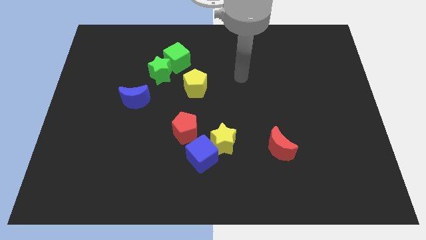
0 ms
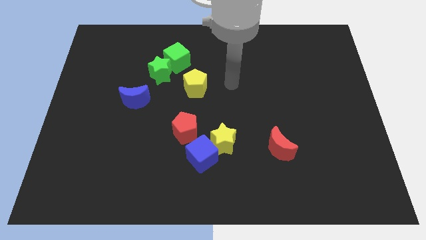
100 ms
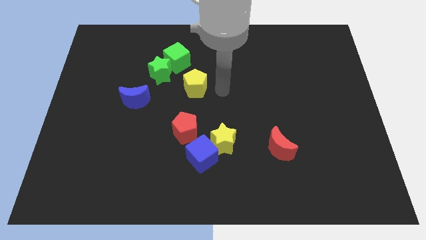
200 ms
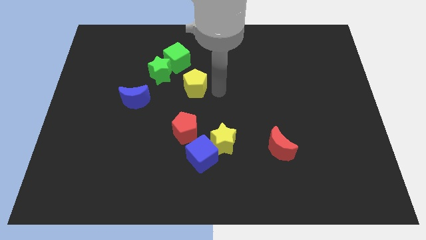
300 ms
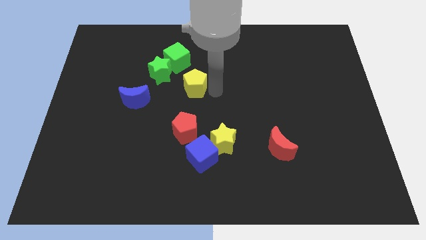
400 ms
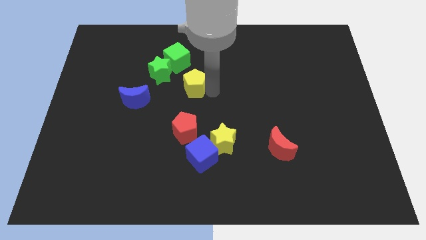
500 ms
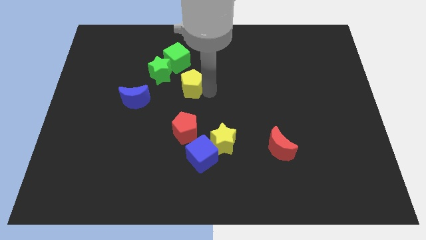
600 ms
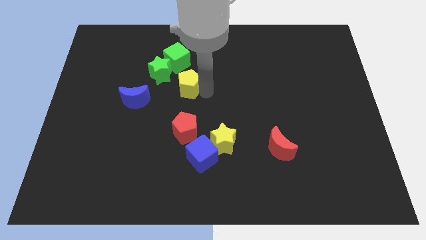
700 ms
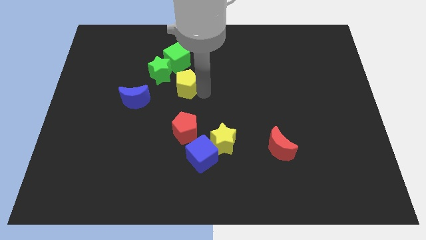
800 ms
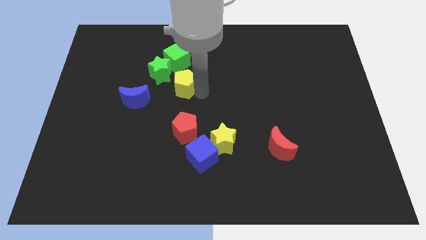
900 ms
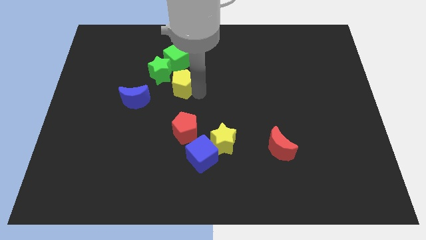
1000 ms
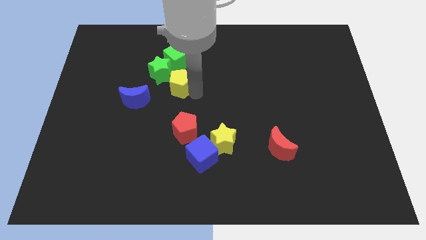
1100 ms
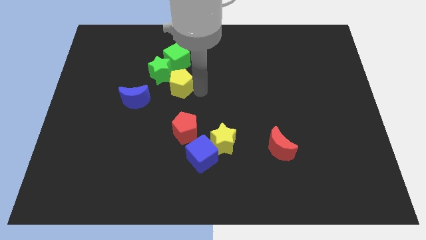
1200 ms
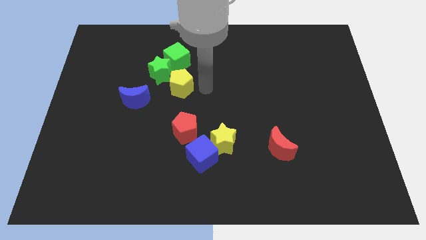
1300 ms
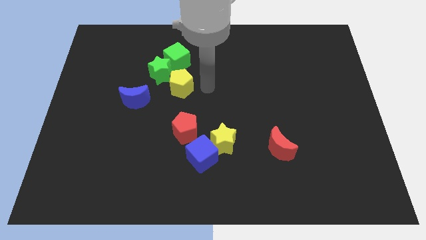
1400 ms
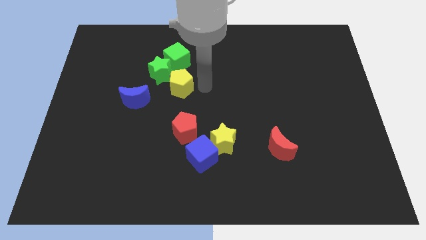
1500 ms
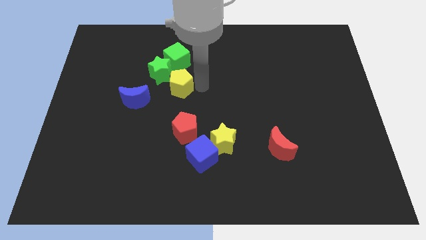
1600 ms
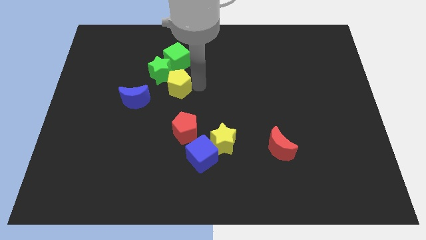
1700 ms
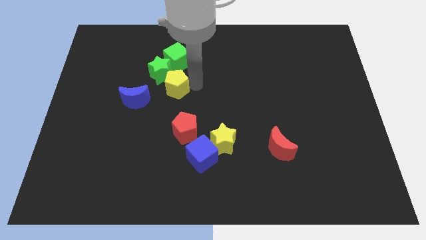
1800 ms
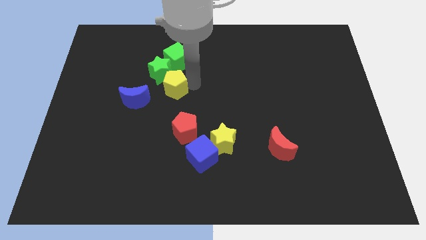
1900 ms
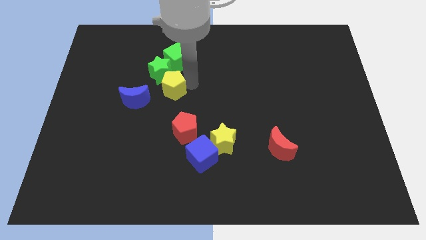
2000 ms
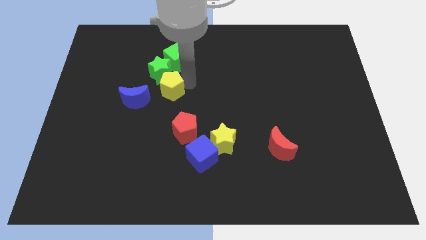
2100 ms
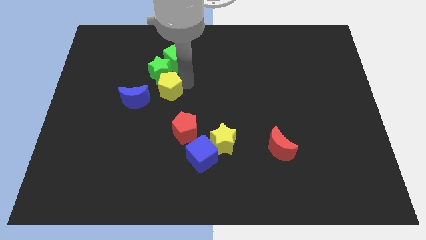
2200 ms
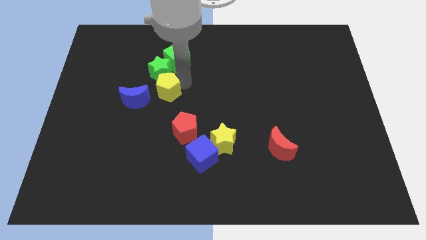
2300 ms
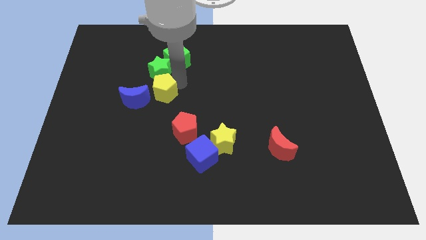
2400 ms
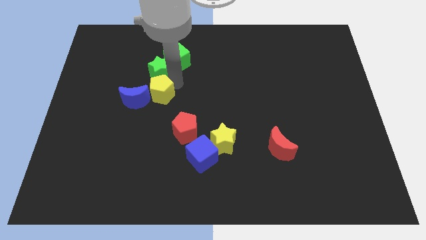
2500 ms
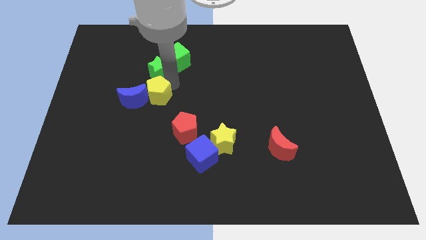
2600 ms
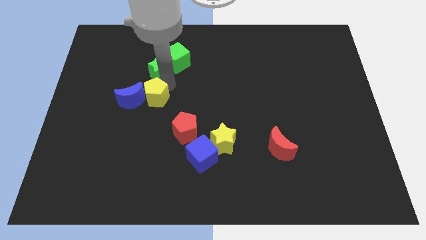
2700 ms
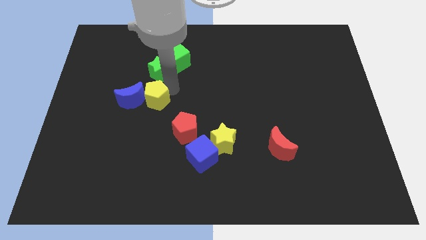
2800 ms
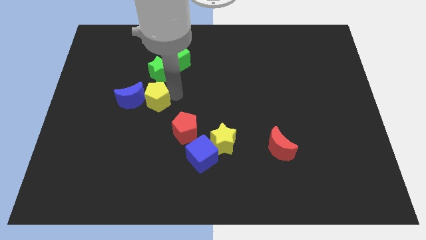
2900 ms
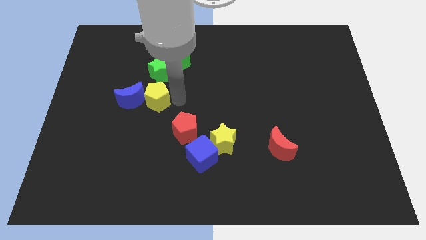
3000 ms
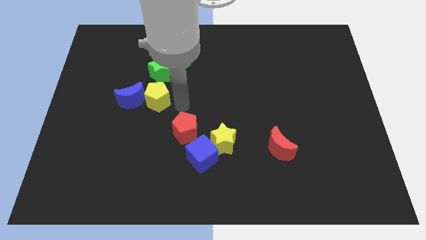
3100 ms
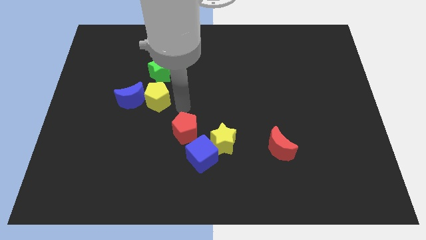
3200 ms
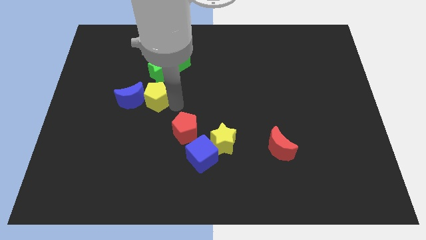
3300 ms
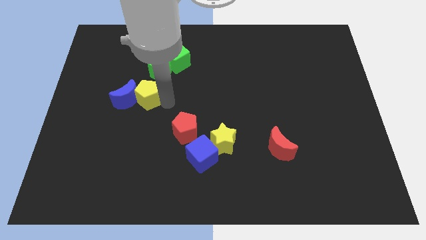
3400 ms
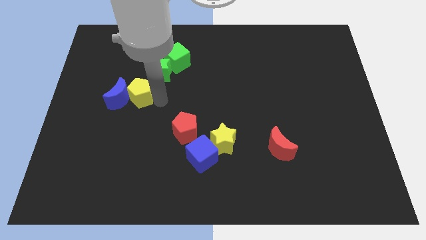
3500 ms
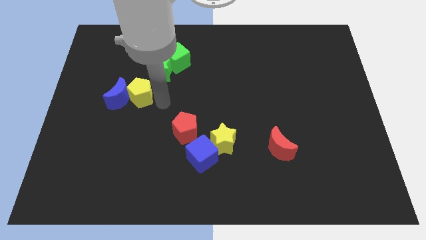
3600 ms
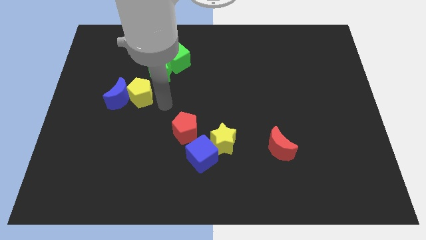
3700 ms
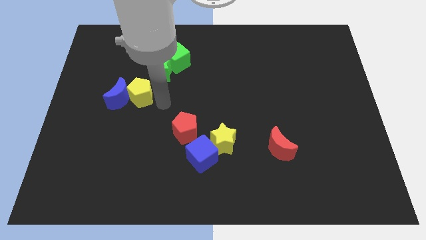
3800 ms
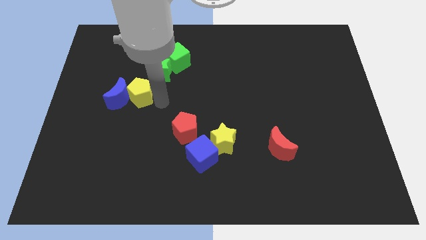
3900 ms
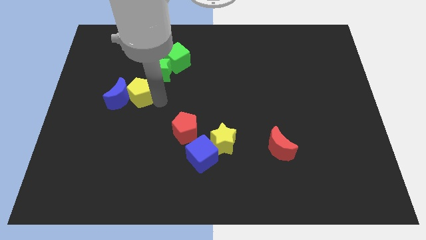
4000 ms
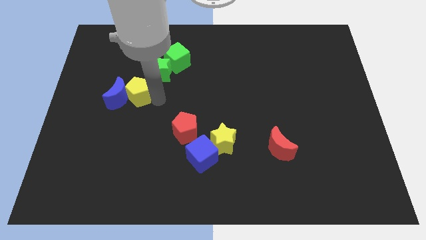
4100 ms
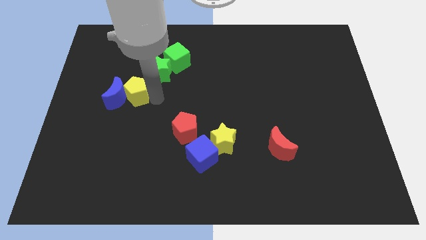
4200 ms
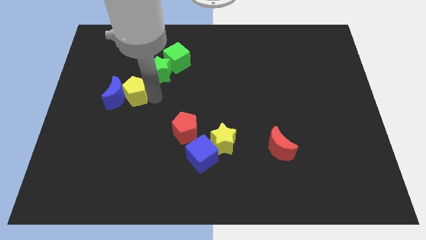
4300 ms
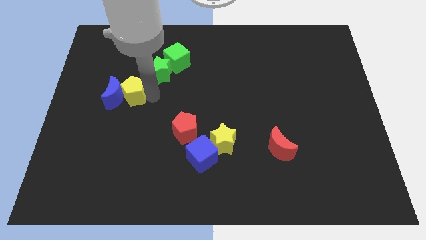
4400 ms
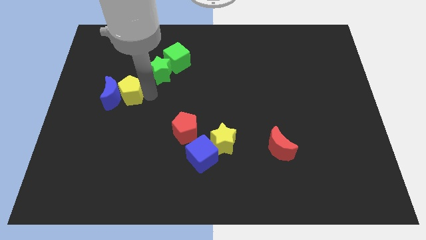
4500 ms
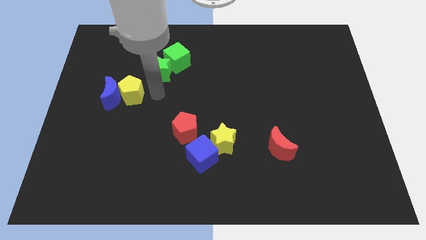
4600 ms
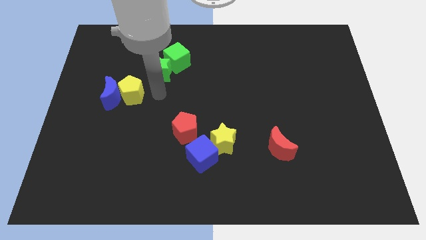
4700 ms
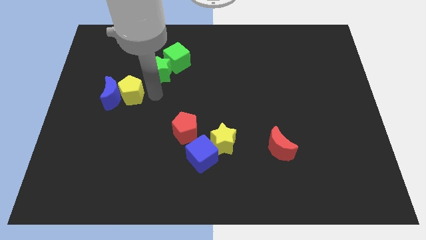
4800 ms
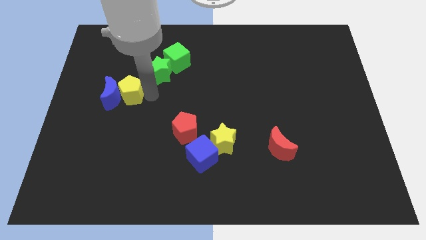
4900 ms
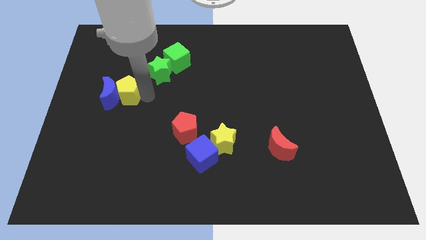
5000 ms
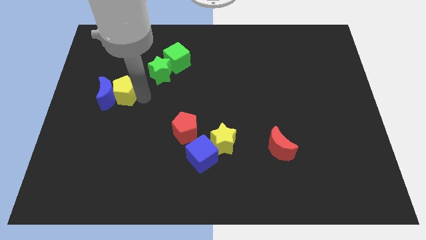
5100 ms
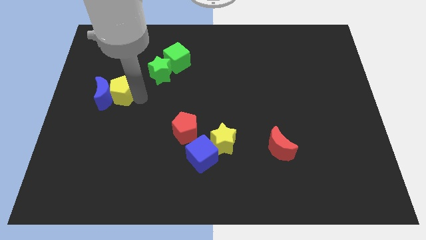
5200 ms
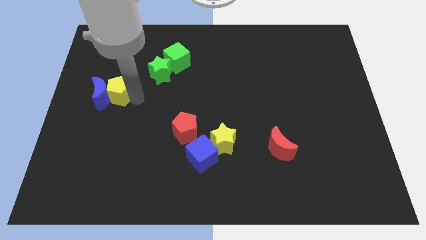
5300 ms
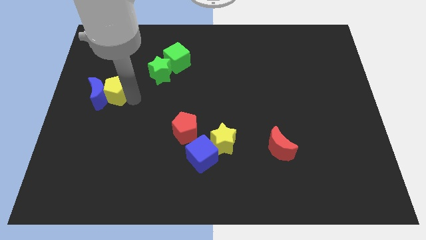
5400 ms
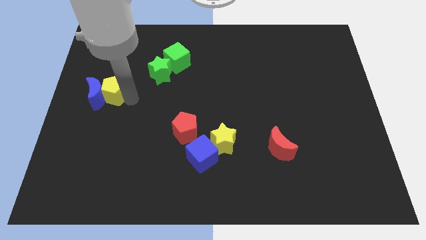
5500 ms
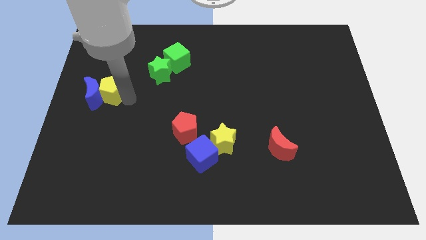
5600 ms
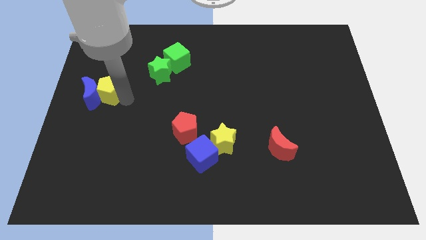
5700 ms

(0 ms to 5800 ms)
move the yellow pentagon to the left side

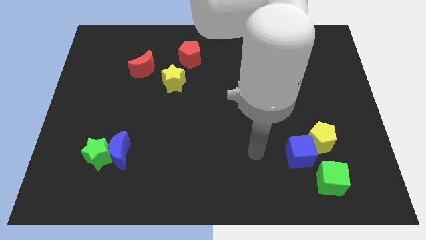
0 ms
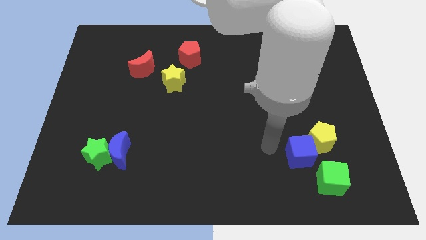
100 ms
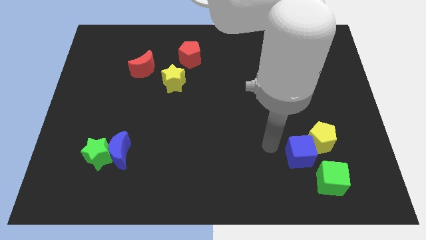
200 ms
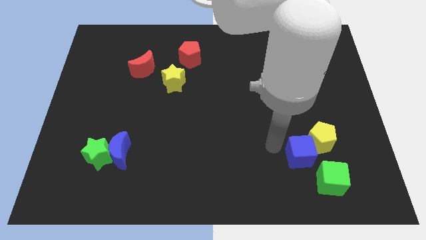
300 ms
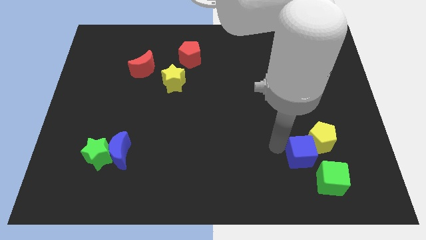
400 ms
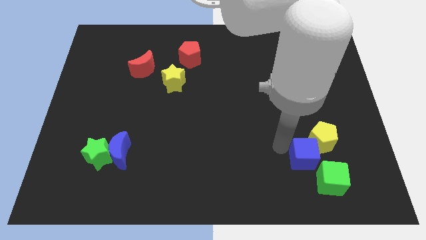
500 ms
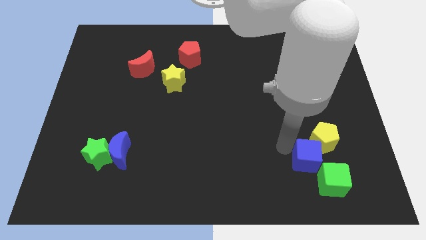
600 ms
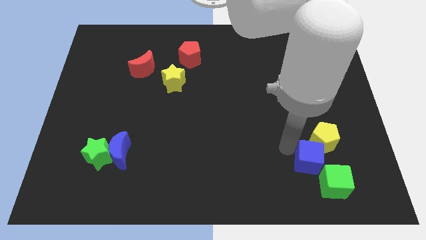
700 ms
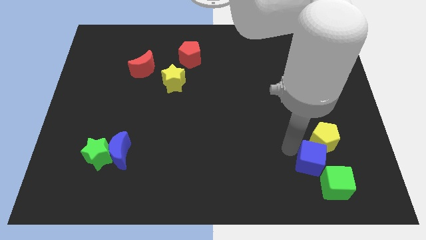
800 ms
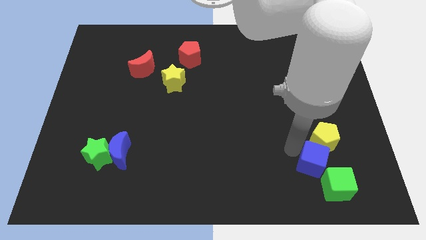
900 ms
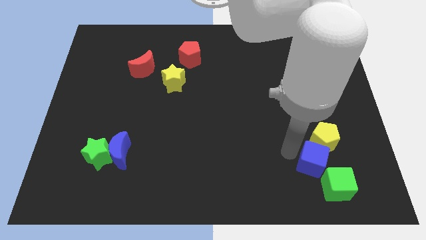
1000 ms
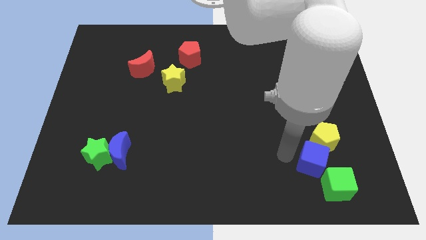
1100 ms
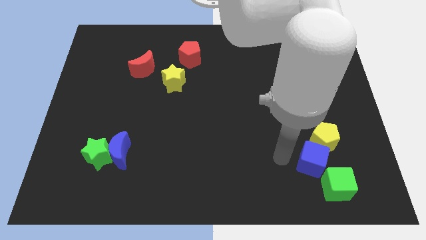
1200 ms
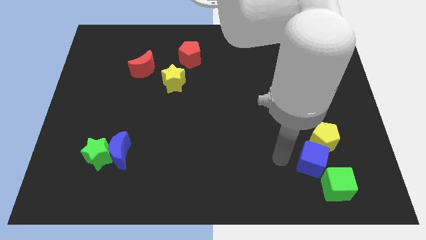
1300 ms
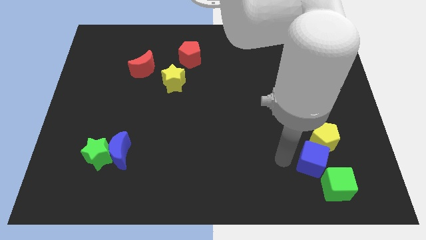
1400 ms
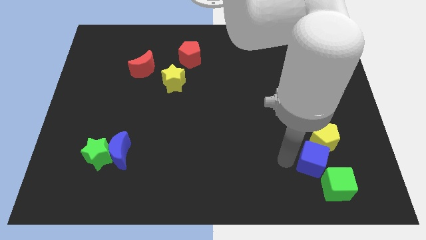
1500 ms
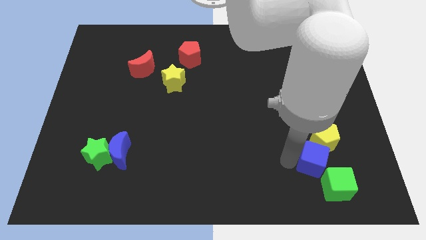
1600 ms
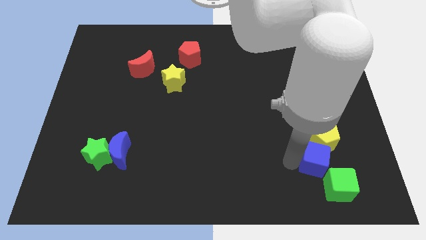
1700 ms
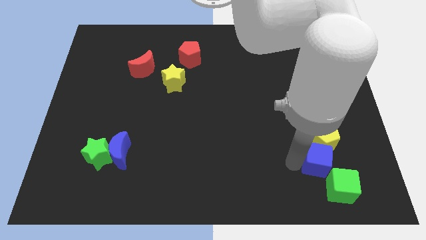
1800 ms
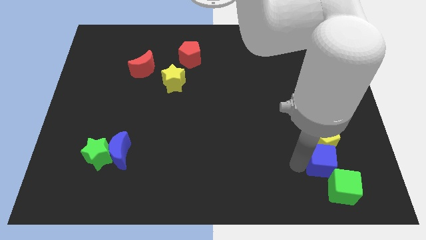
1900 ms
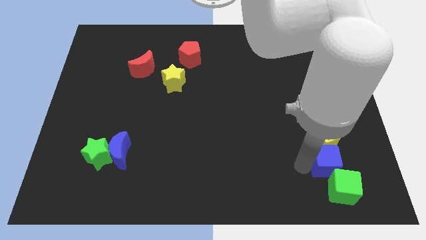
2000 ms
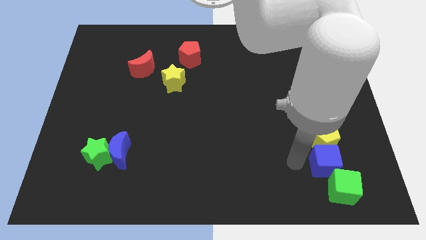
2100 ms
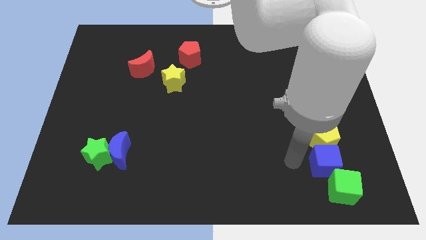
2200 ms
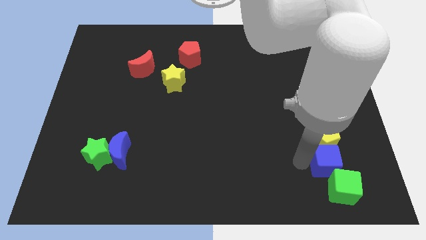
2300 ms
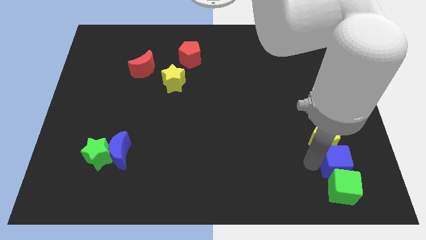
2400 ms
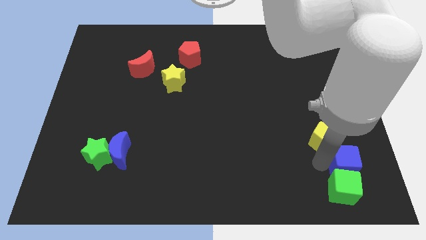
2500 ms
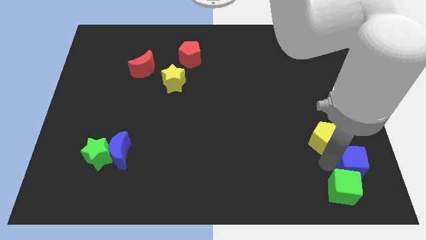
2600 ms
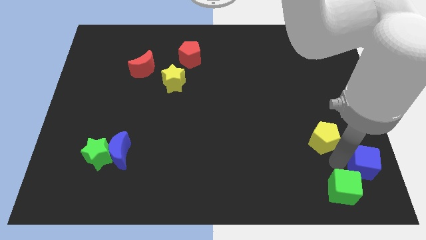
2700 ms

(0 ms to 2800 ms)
slide the blue cube to the lower right corner
